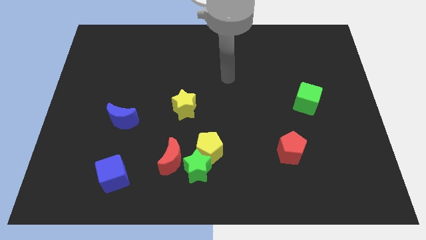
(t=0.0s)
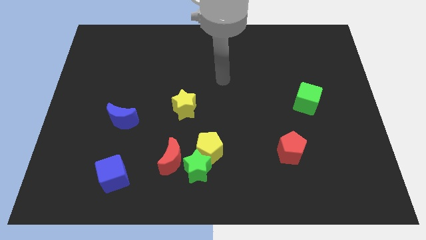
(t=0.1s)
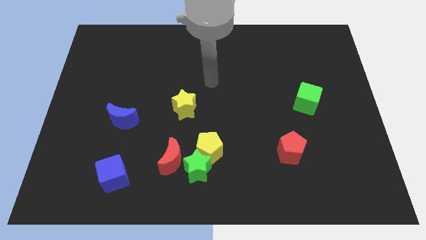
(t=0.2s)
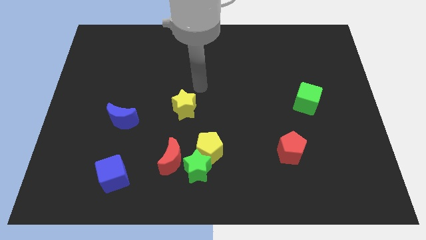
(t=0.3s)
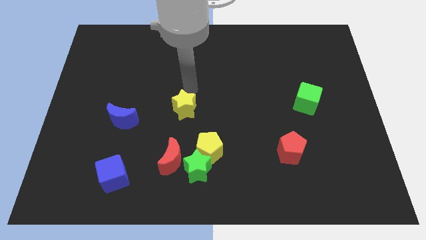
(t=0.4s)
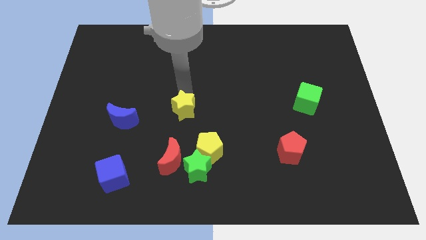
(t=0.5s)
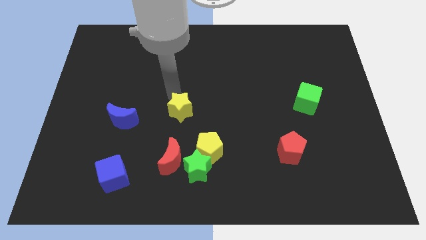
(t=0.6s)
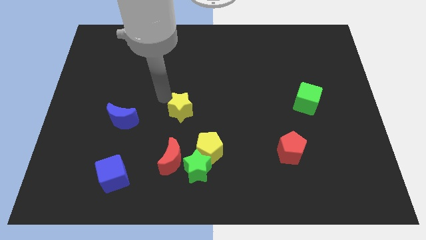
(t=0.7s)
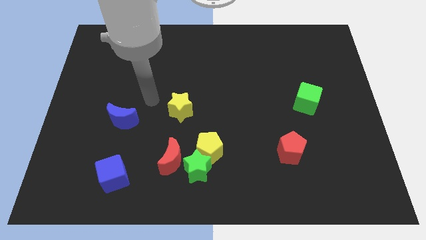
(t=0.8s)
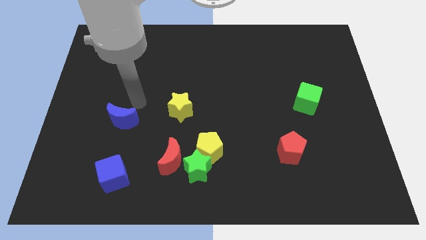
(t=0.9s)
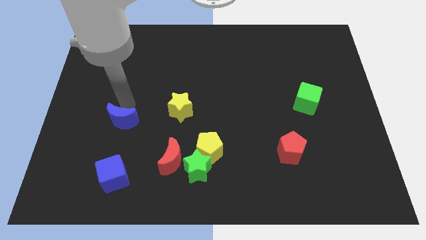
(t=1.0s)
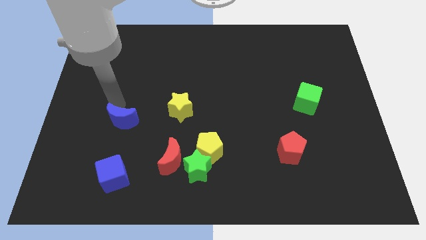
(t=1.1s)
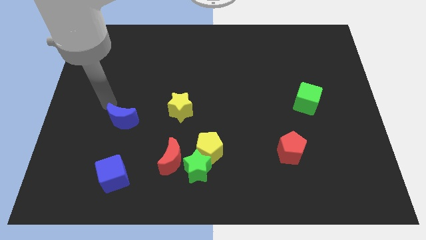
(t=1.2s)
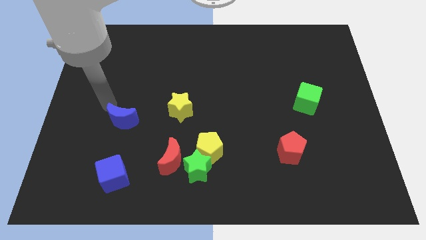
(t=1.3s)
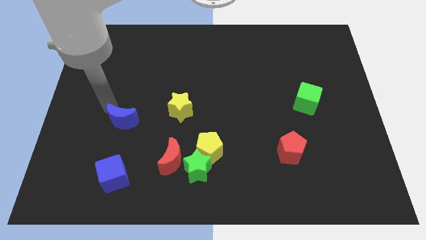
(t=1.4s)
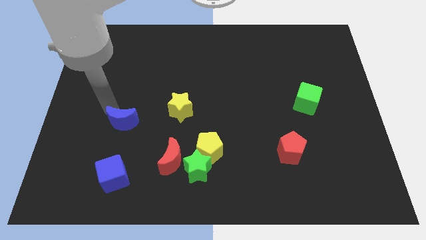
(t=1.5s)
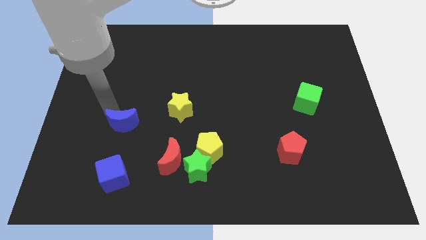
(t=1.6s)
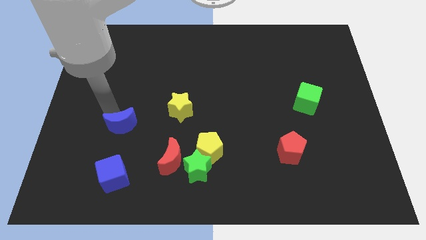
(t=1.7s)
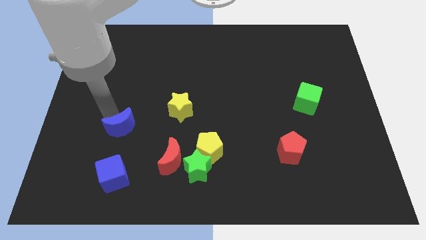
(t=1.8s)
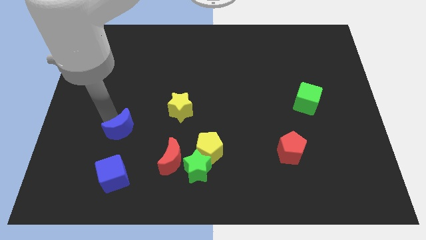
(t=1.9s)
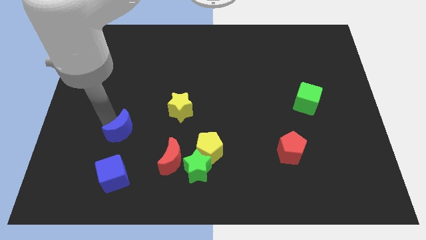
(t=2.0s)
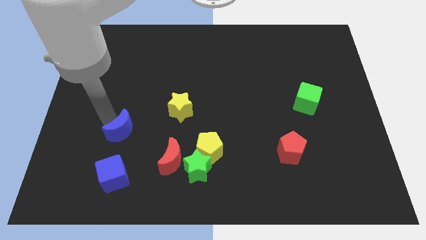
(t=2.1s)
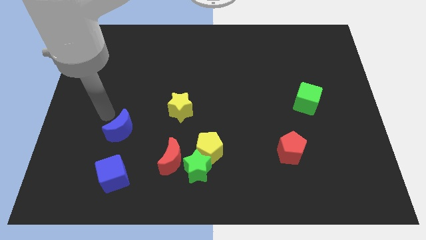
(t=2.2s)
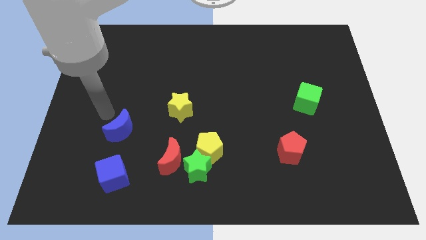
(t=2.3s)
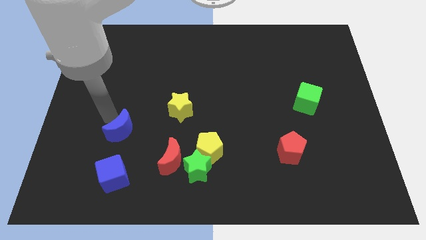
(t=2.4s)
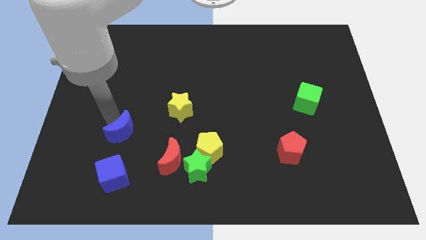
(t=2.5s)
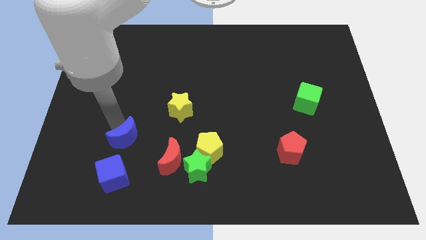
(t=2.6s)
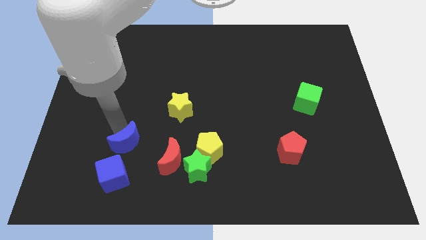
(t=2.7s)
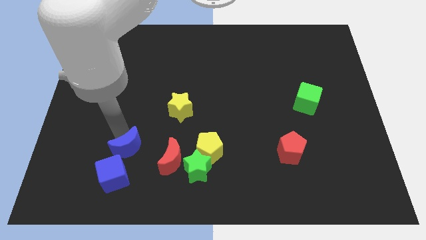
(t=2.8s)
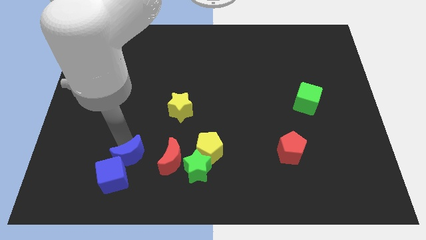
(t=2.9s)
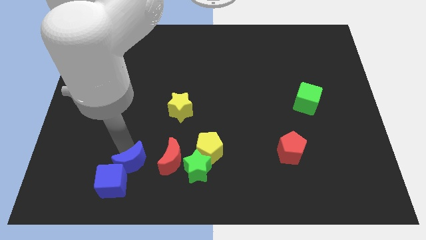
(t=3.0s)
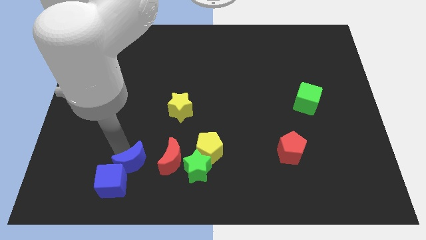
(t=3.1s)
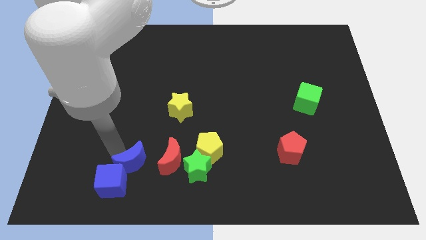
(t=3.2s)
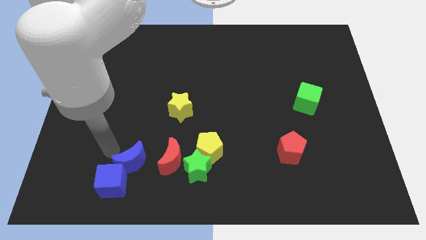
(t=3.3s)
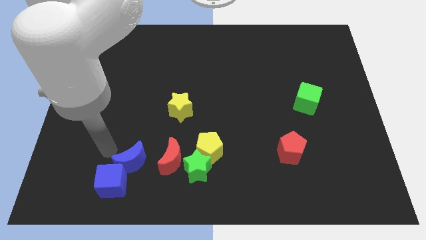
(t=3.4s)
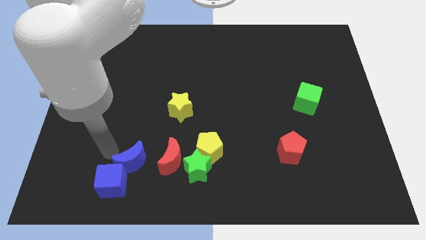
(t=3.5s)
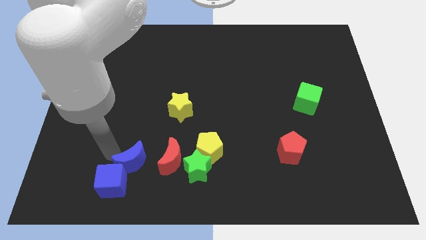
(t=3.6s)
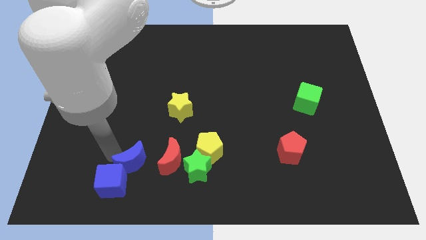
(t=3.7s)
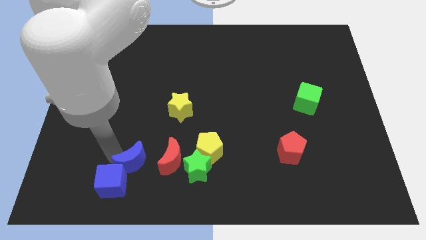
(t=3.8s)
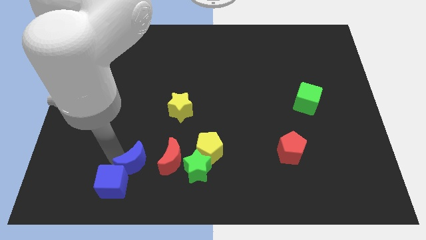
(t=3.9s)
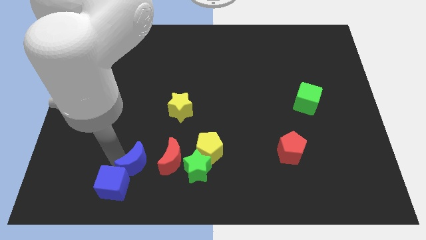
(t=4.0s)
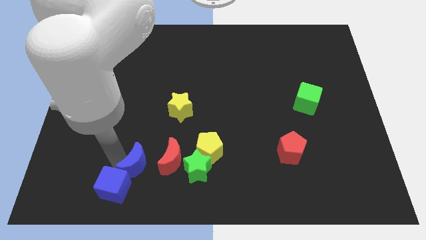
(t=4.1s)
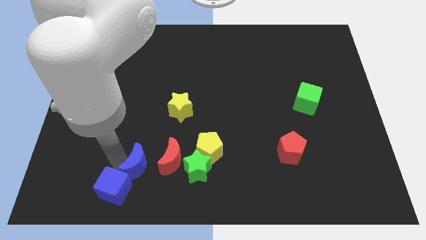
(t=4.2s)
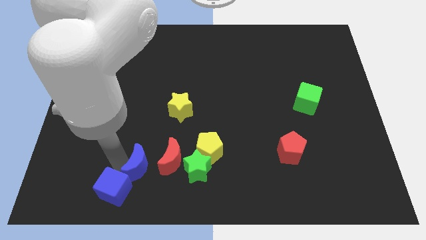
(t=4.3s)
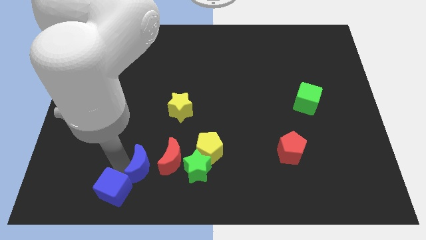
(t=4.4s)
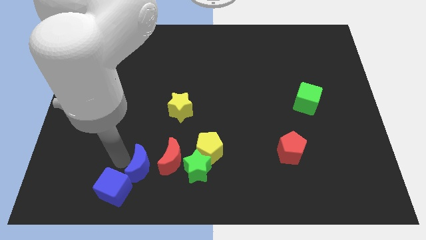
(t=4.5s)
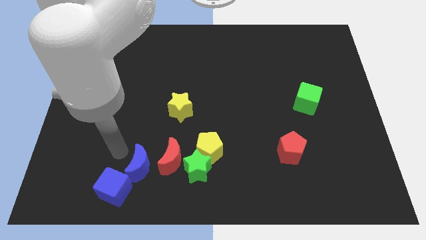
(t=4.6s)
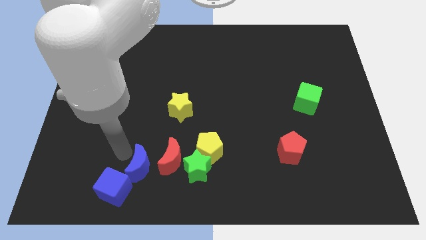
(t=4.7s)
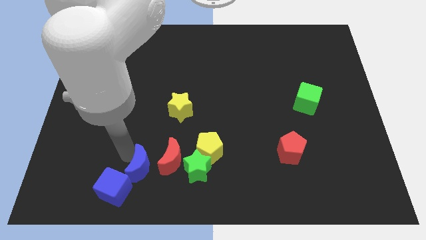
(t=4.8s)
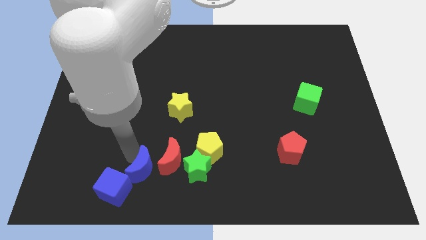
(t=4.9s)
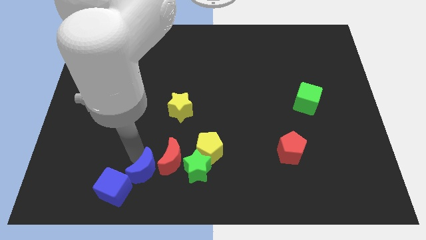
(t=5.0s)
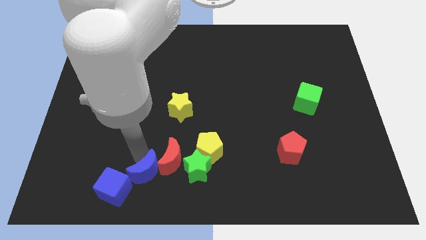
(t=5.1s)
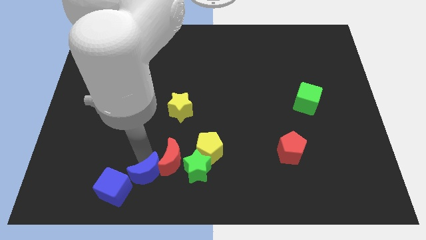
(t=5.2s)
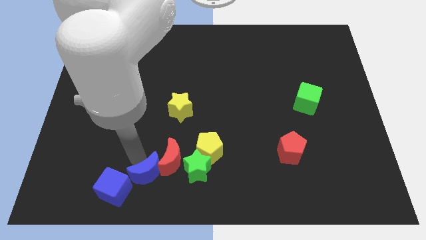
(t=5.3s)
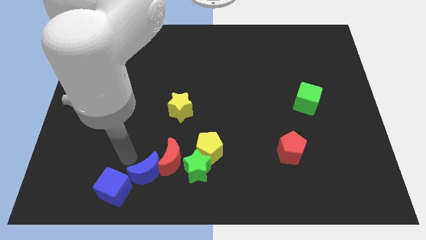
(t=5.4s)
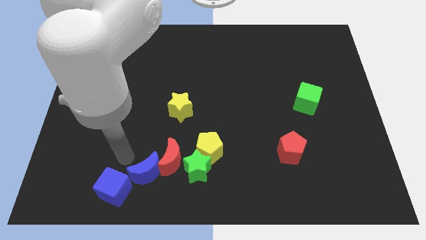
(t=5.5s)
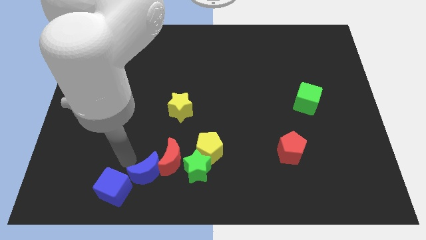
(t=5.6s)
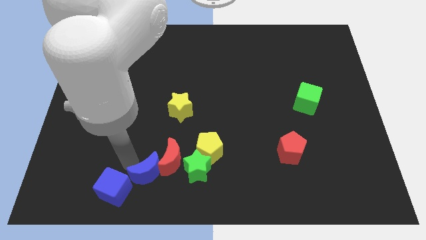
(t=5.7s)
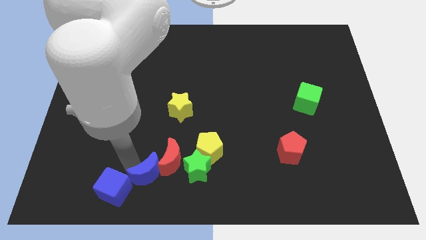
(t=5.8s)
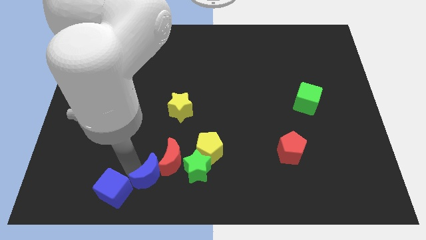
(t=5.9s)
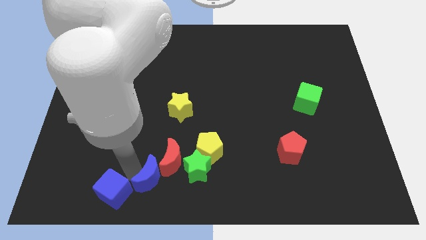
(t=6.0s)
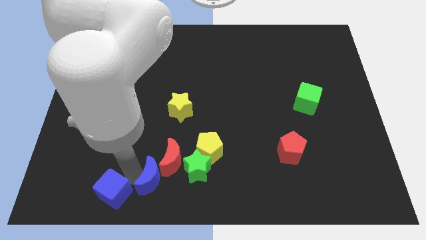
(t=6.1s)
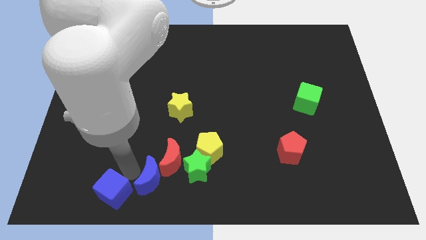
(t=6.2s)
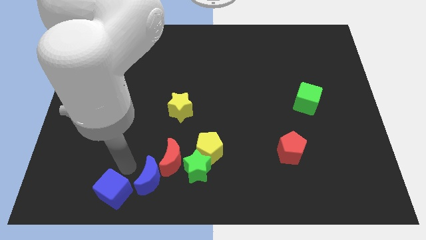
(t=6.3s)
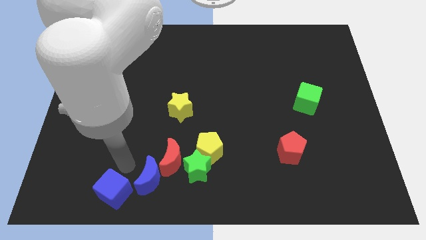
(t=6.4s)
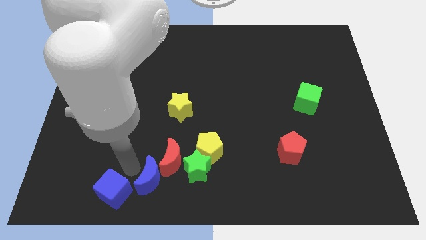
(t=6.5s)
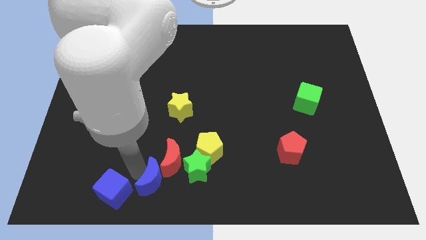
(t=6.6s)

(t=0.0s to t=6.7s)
slide the blue moon to the bottom
